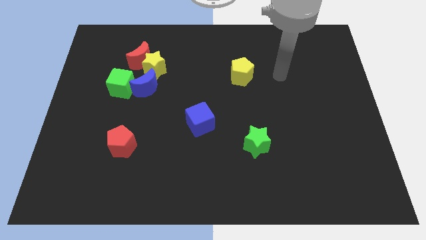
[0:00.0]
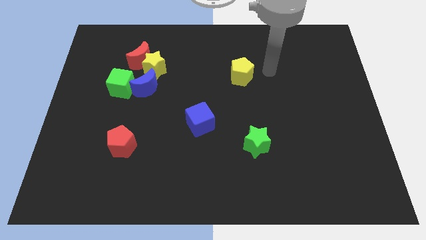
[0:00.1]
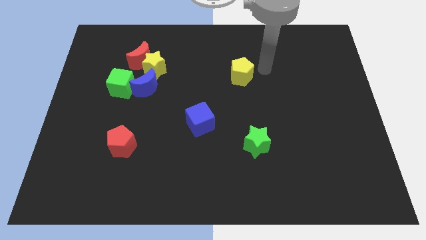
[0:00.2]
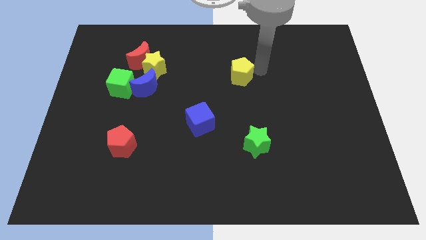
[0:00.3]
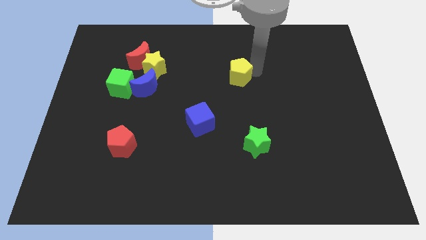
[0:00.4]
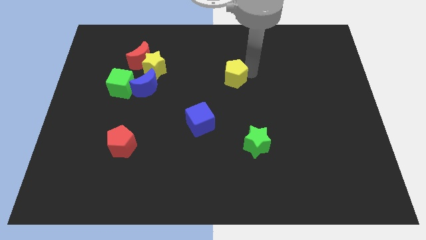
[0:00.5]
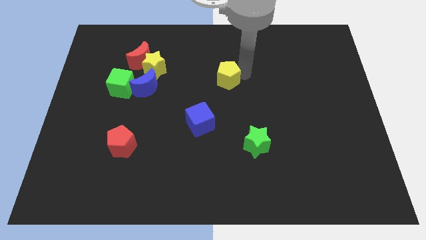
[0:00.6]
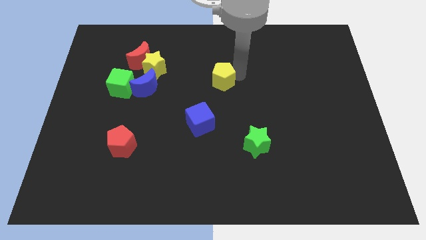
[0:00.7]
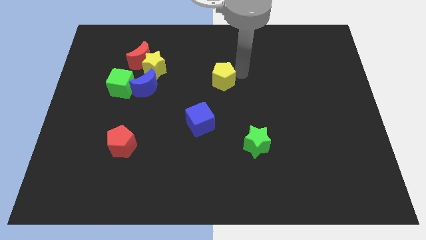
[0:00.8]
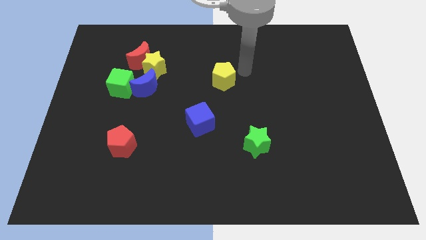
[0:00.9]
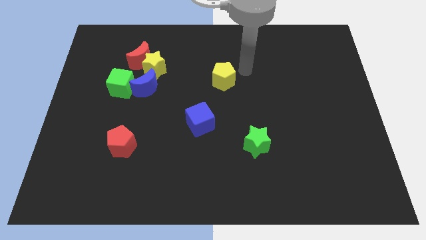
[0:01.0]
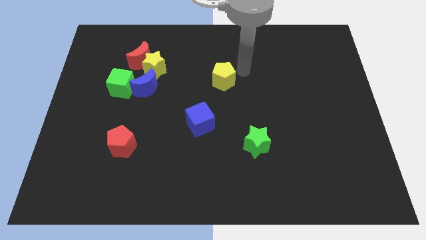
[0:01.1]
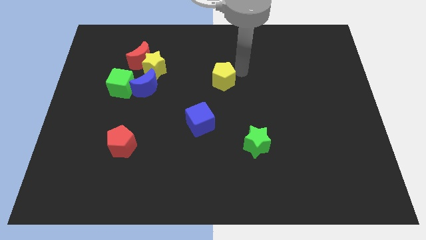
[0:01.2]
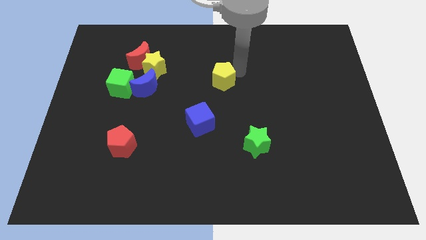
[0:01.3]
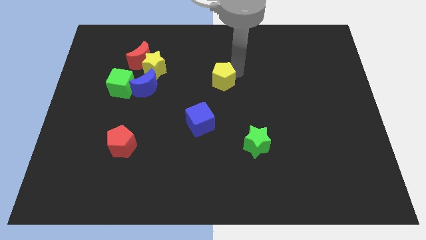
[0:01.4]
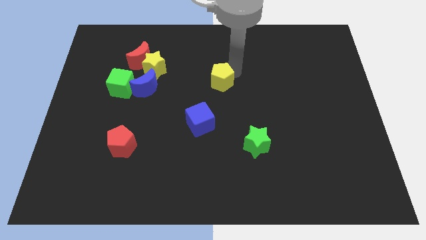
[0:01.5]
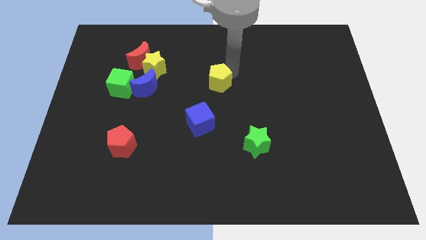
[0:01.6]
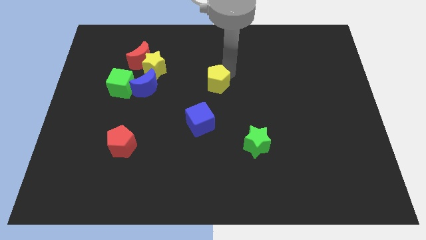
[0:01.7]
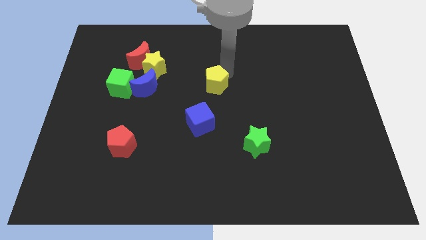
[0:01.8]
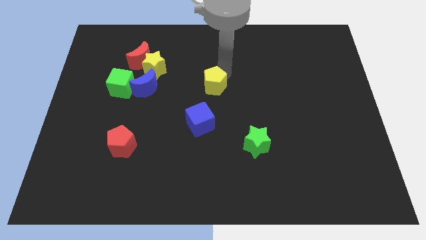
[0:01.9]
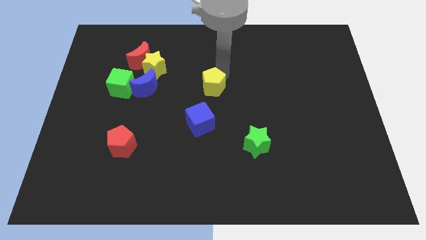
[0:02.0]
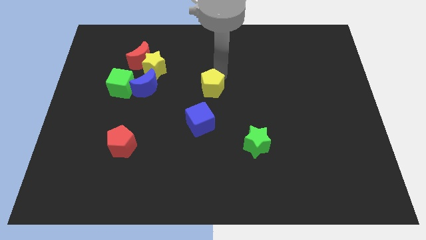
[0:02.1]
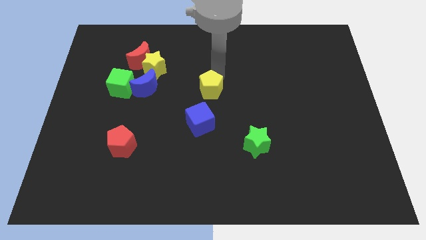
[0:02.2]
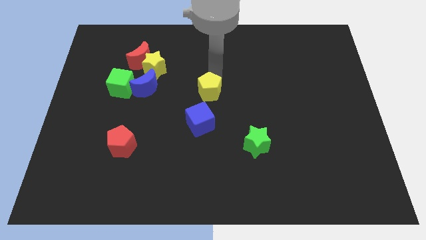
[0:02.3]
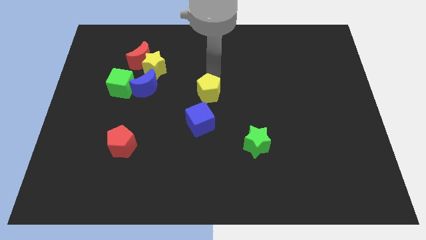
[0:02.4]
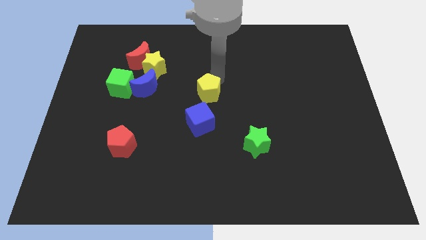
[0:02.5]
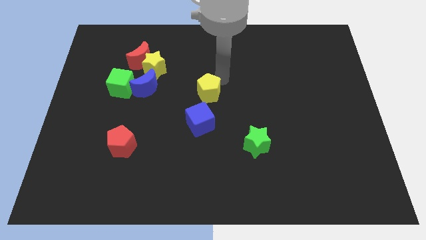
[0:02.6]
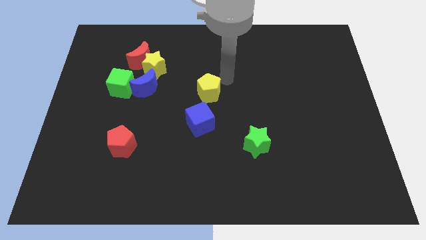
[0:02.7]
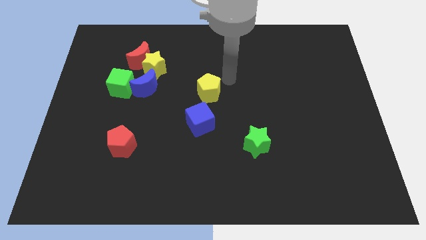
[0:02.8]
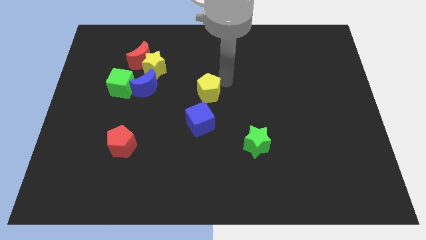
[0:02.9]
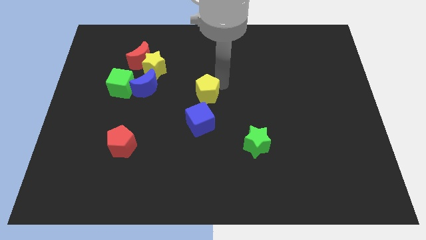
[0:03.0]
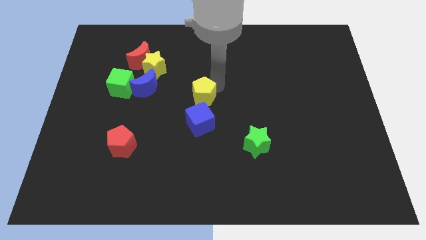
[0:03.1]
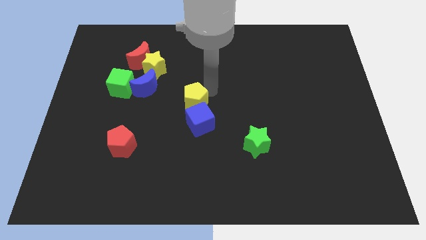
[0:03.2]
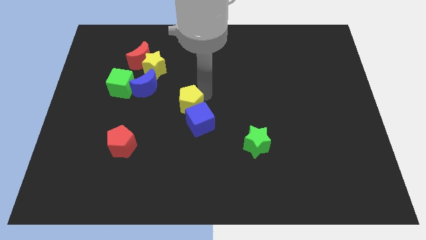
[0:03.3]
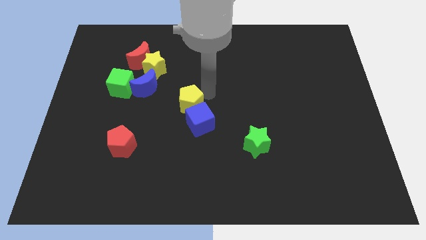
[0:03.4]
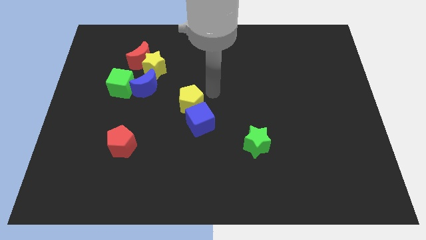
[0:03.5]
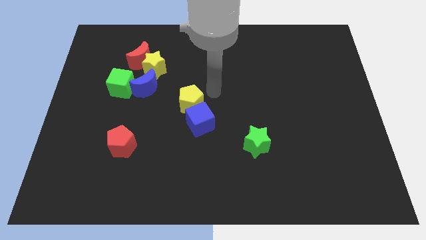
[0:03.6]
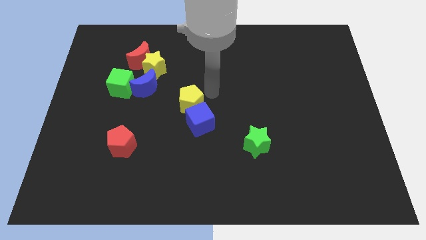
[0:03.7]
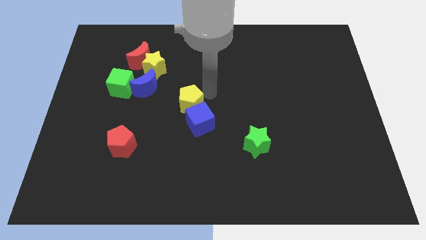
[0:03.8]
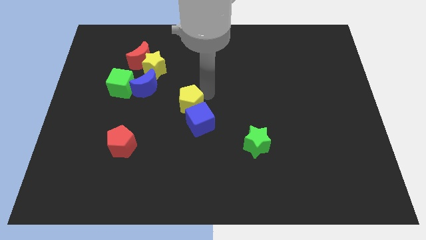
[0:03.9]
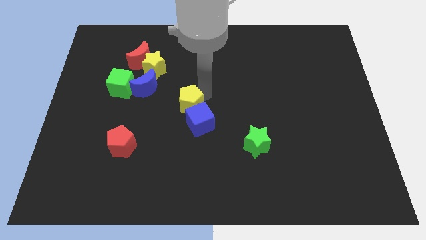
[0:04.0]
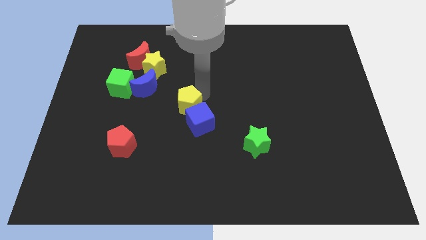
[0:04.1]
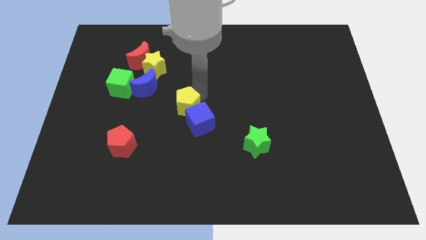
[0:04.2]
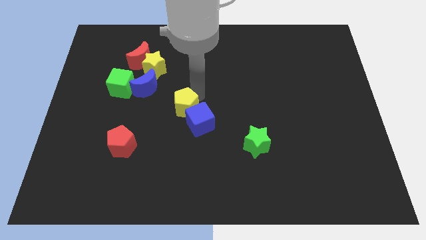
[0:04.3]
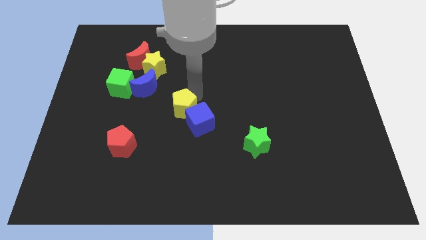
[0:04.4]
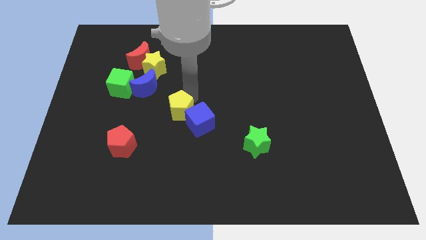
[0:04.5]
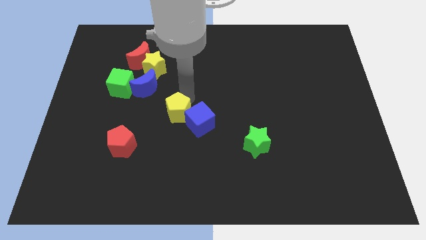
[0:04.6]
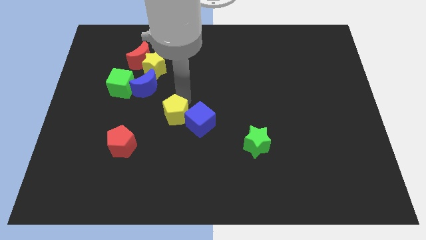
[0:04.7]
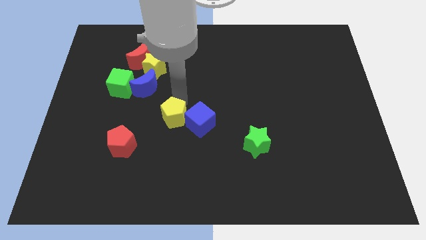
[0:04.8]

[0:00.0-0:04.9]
slide the yellow pentagon down and then left

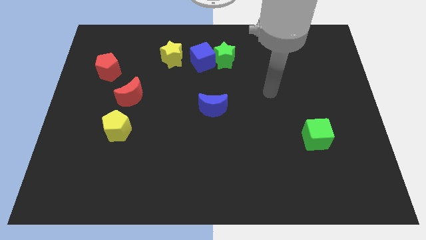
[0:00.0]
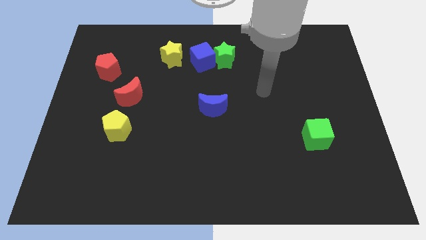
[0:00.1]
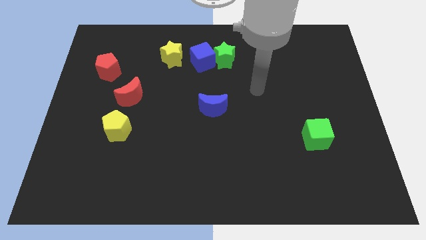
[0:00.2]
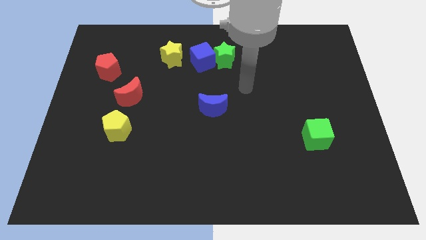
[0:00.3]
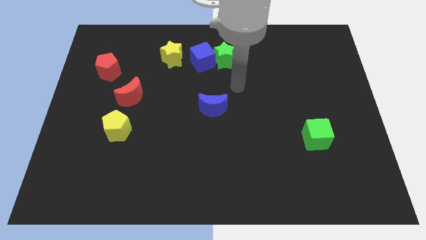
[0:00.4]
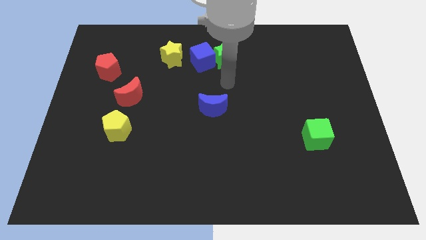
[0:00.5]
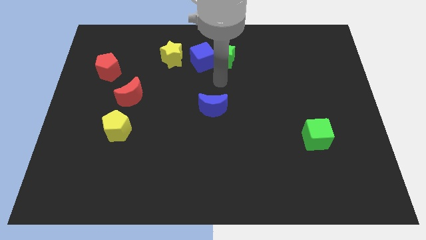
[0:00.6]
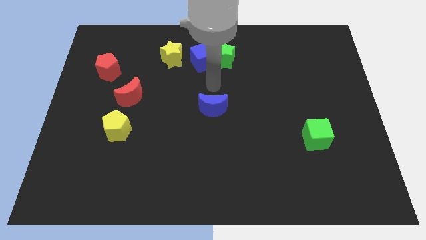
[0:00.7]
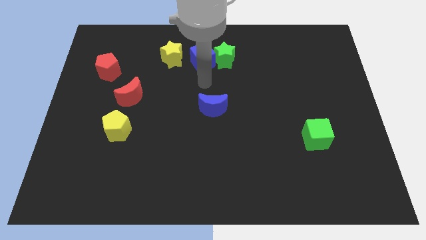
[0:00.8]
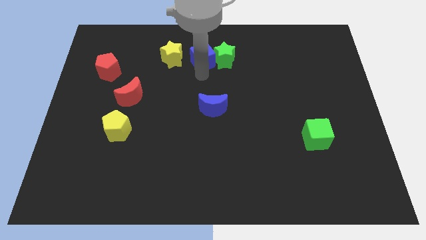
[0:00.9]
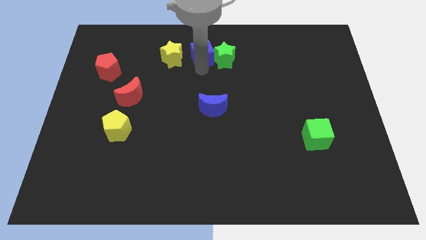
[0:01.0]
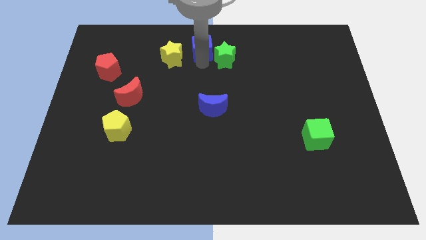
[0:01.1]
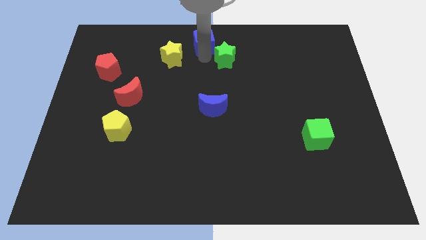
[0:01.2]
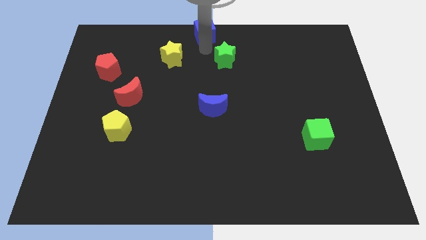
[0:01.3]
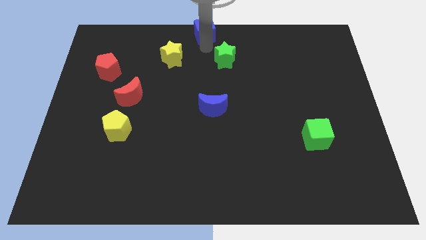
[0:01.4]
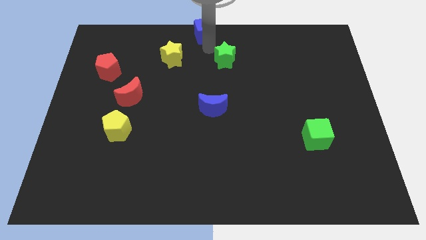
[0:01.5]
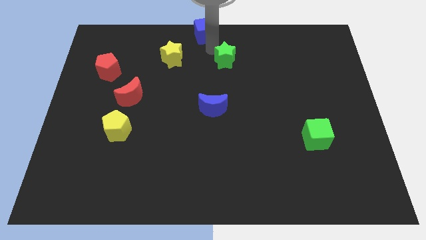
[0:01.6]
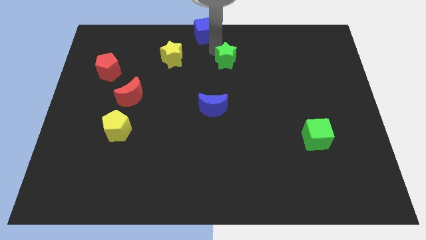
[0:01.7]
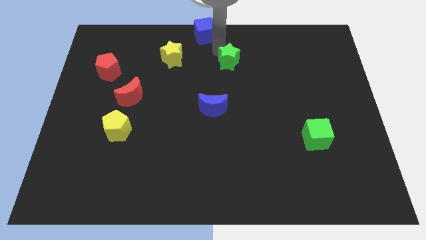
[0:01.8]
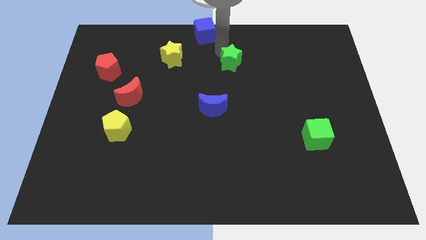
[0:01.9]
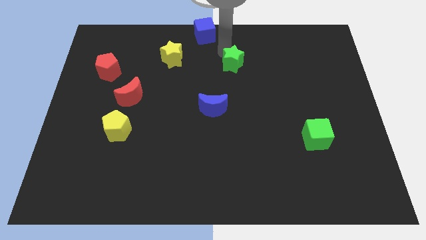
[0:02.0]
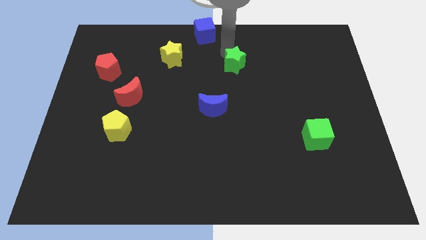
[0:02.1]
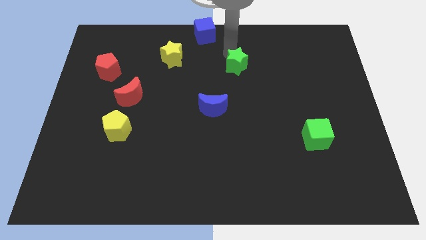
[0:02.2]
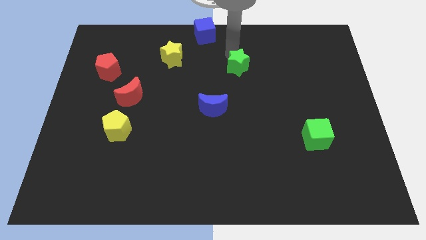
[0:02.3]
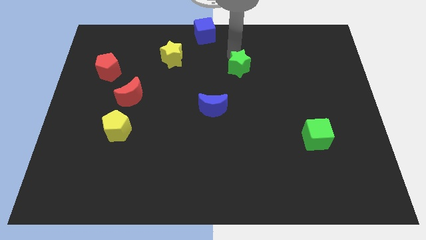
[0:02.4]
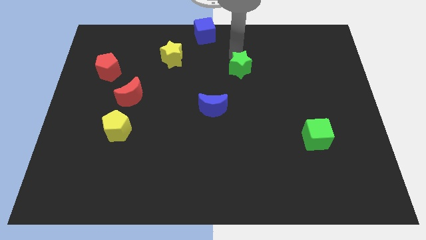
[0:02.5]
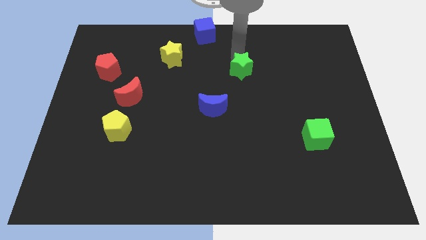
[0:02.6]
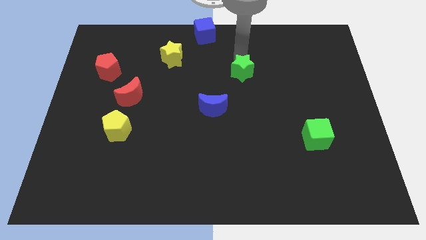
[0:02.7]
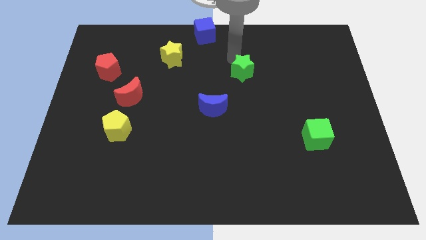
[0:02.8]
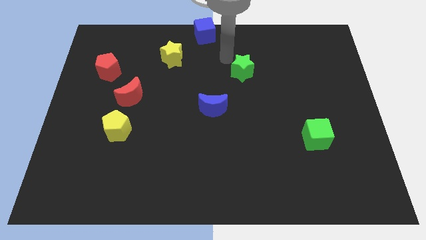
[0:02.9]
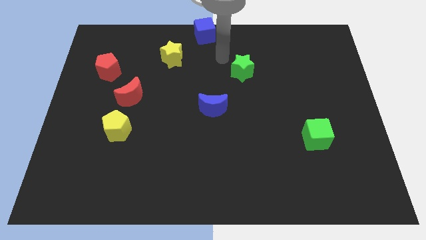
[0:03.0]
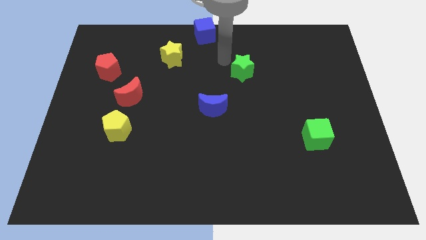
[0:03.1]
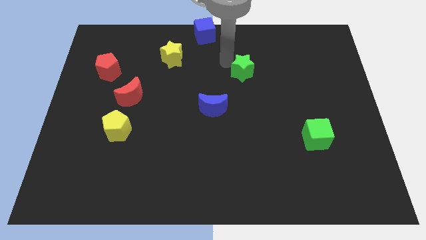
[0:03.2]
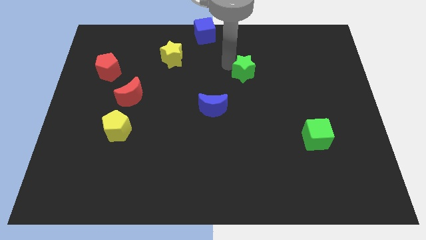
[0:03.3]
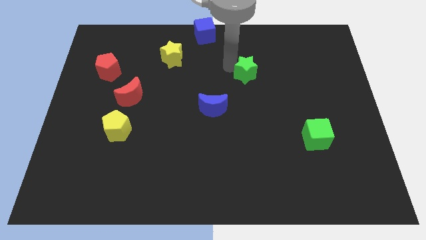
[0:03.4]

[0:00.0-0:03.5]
slightly slide the green star down and right diagonally
